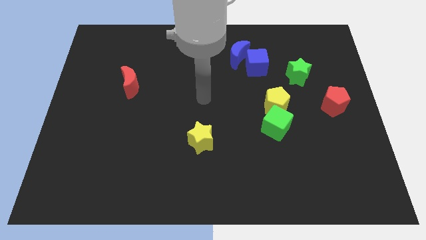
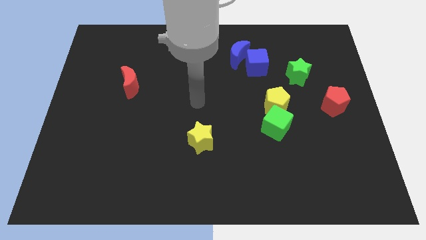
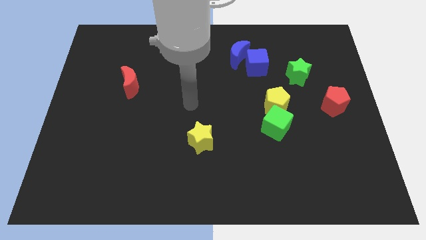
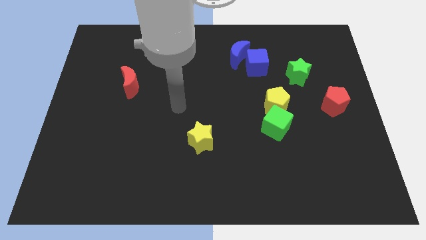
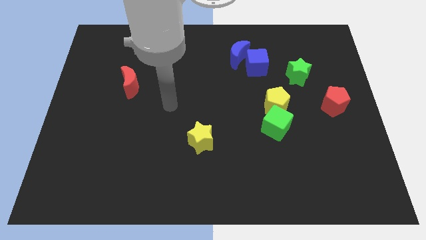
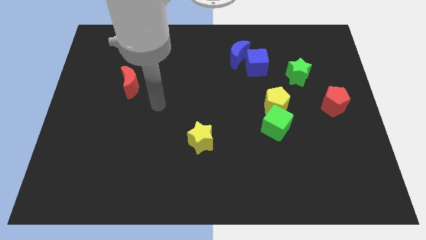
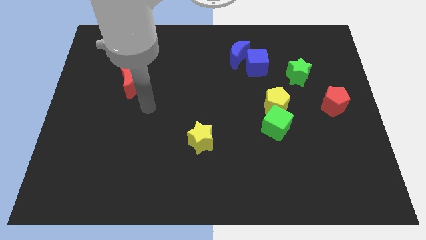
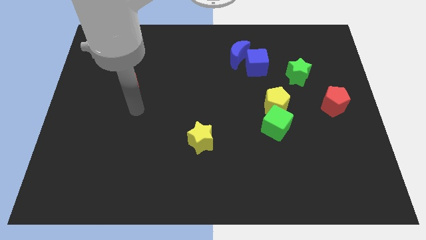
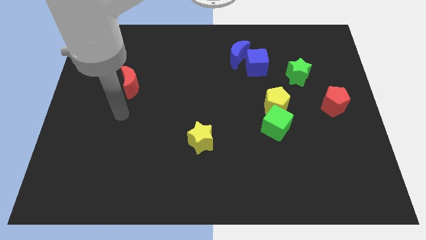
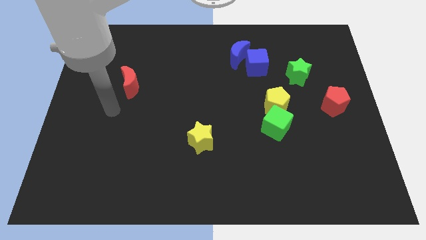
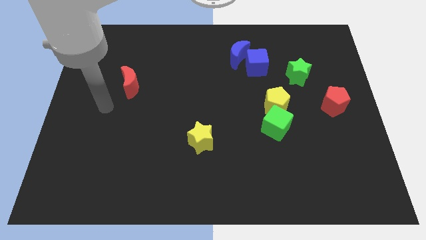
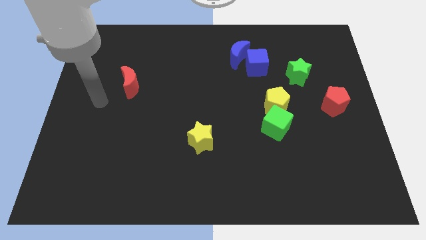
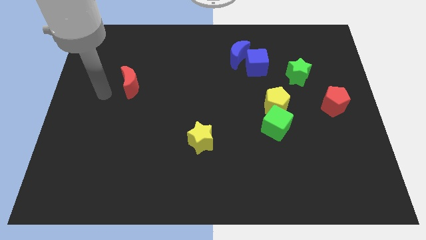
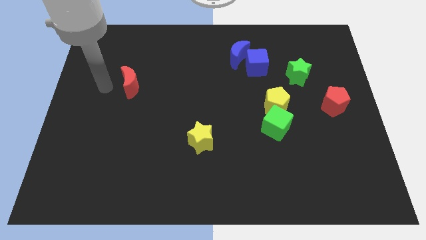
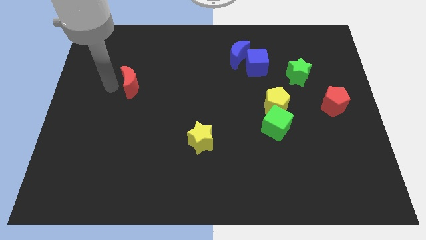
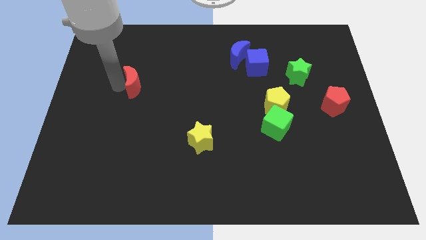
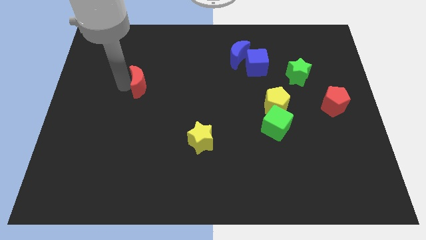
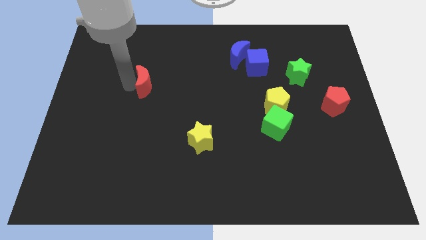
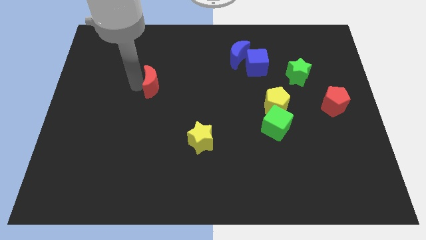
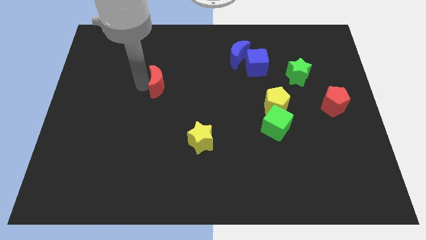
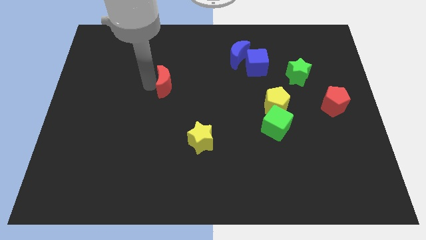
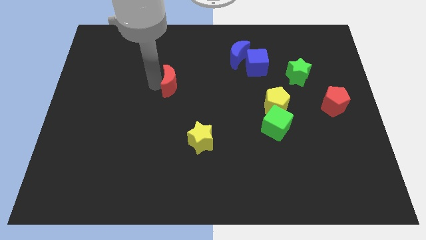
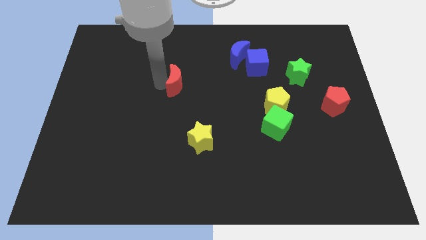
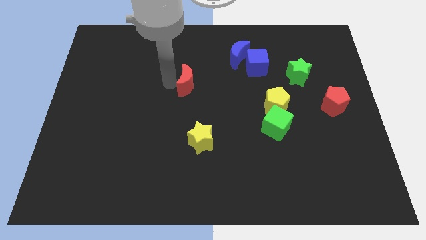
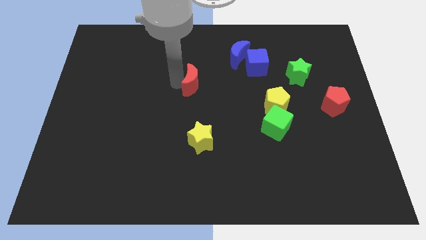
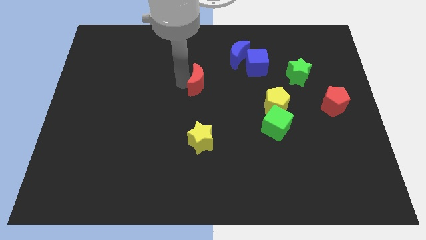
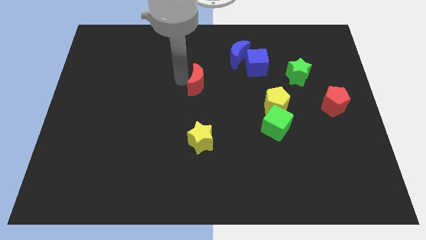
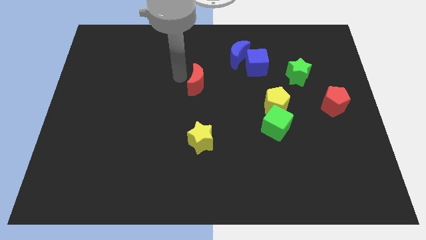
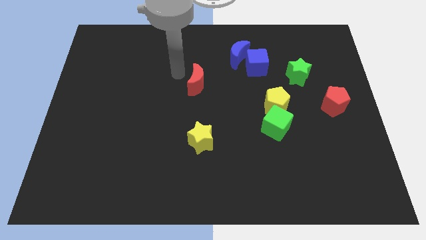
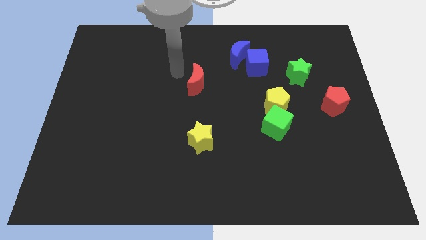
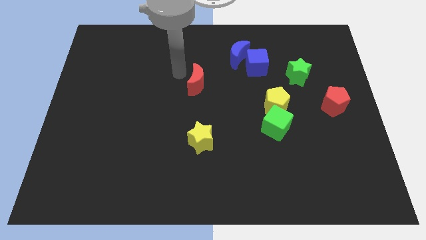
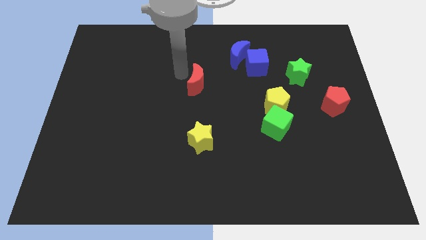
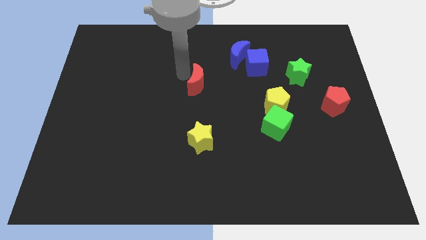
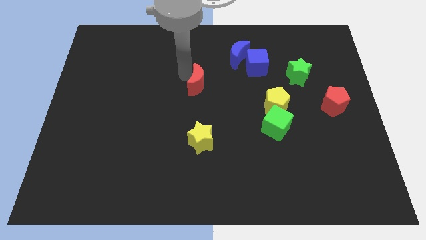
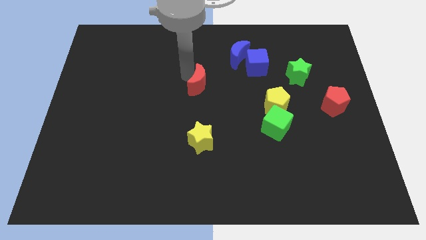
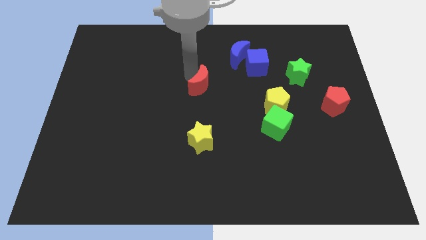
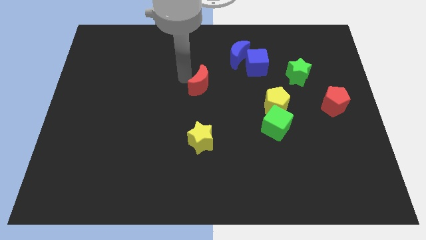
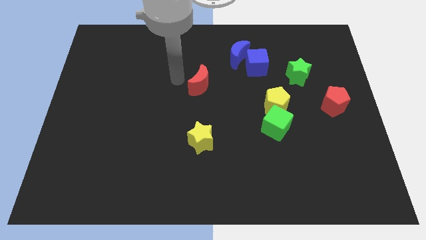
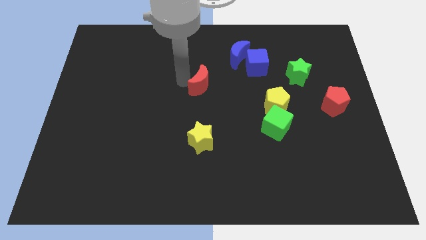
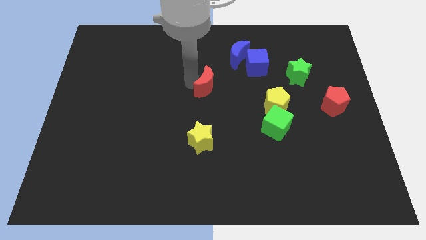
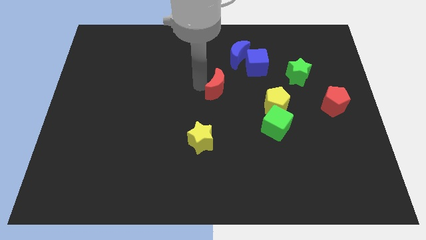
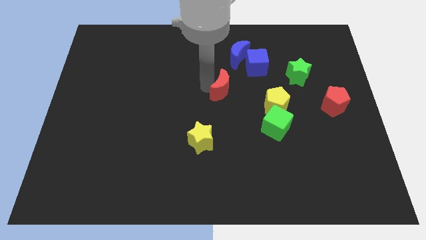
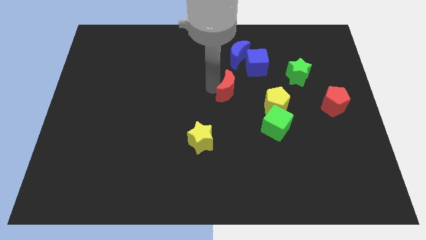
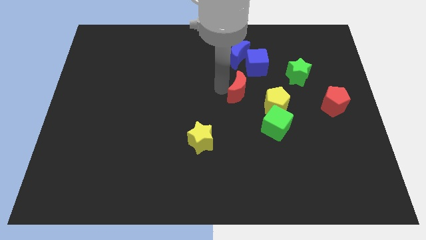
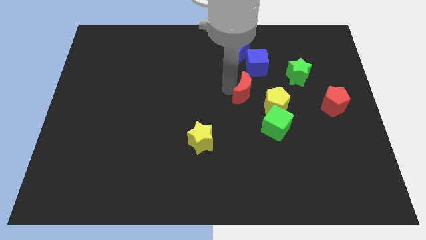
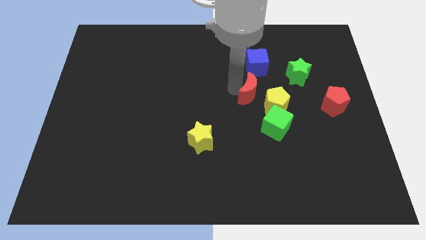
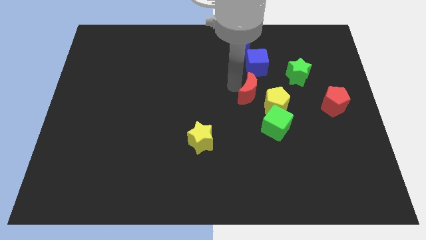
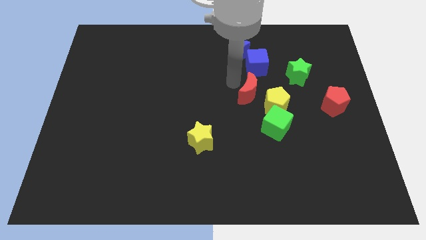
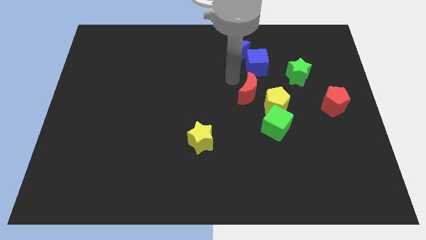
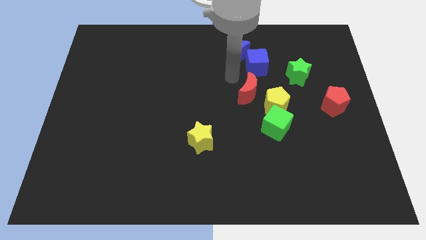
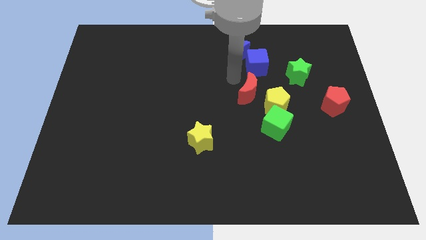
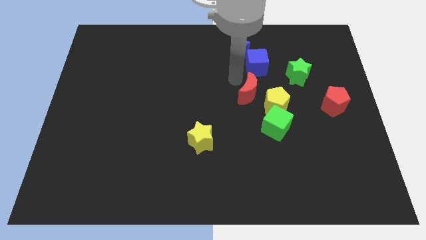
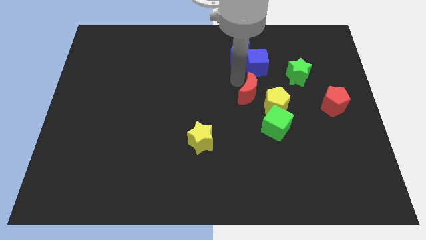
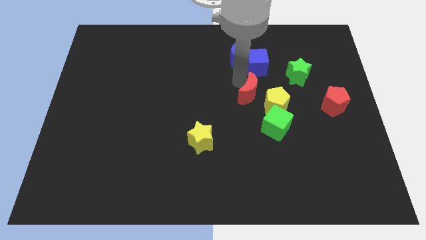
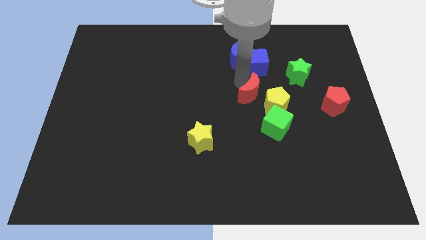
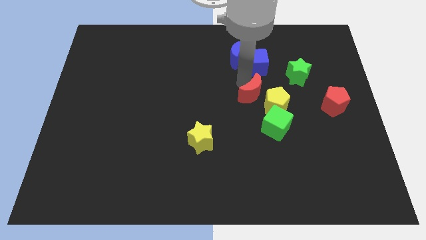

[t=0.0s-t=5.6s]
put the red moon close to the yellow pentagon

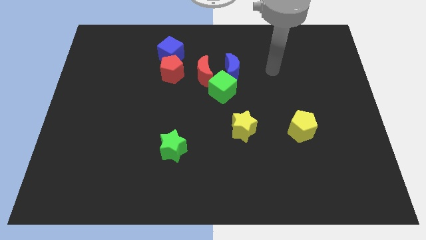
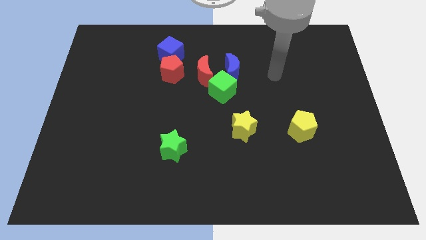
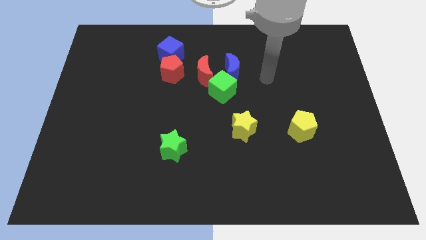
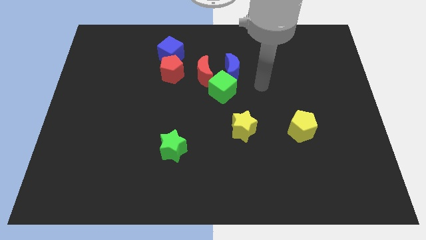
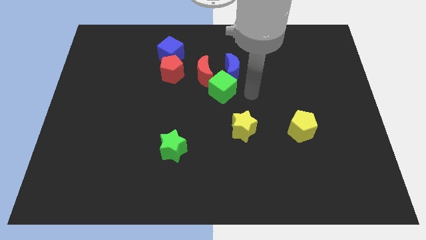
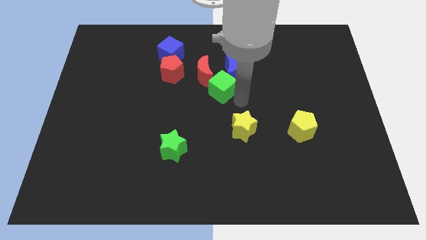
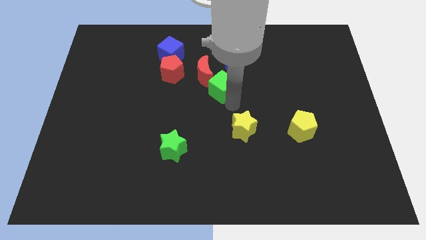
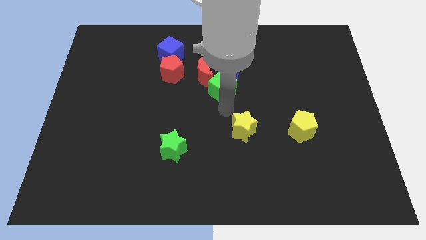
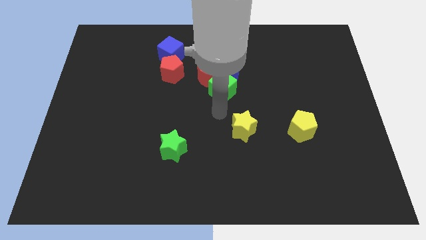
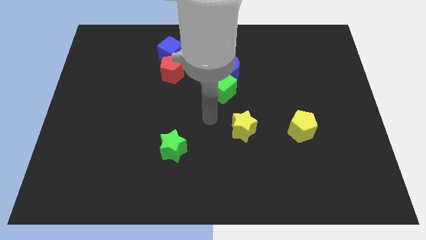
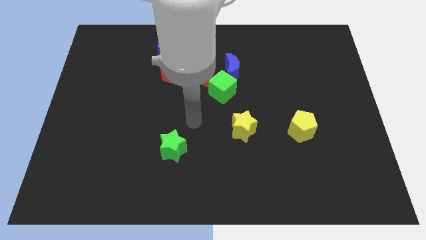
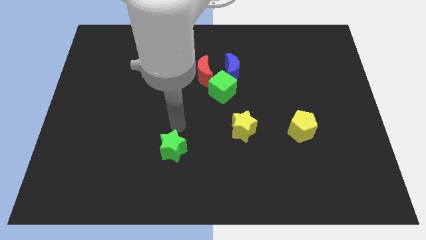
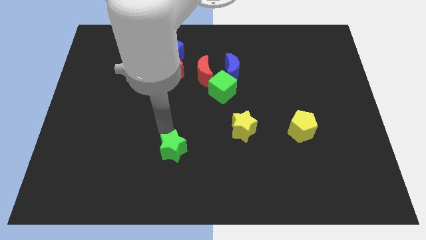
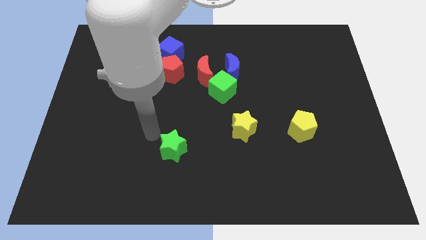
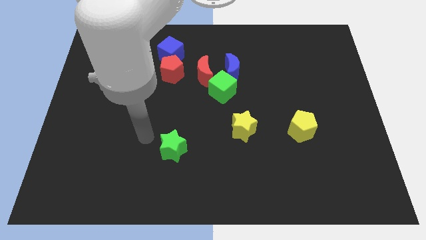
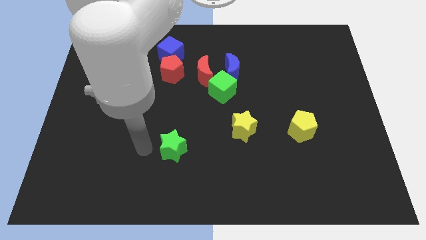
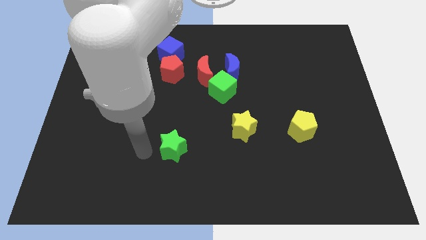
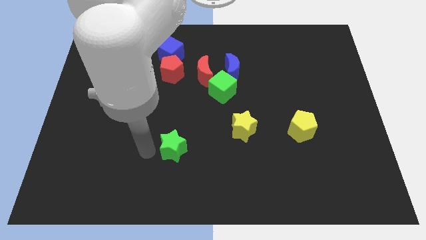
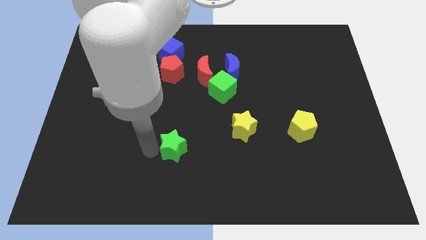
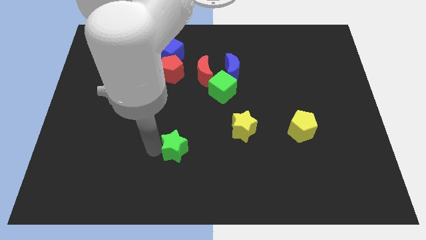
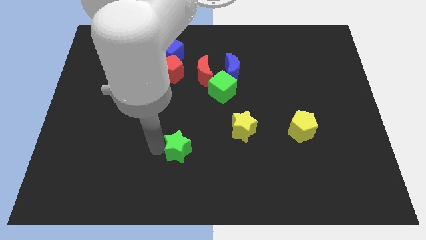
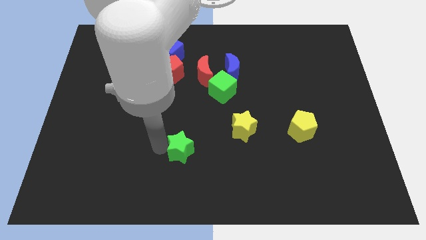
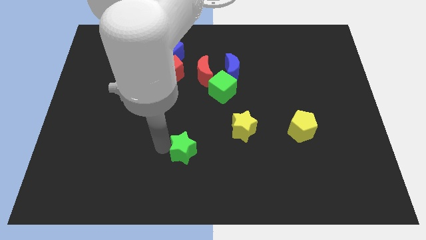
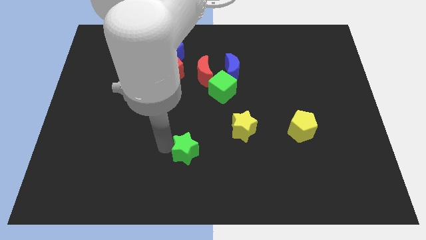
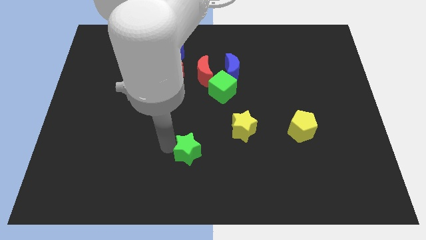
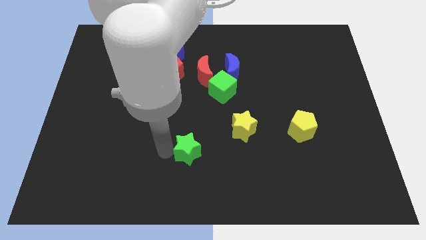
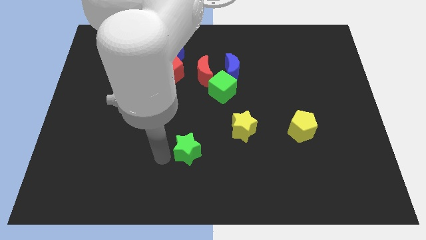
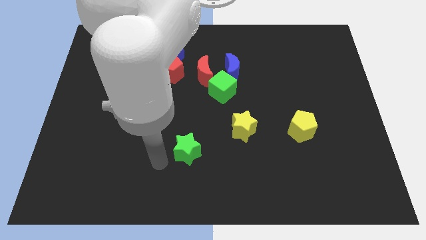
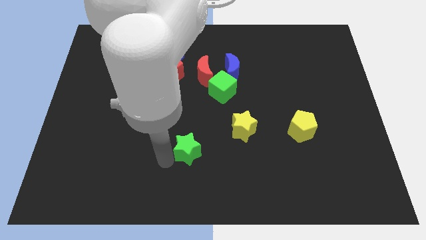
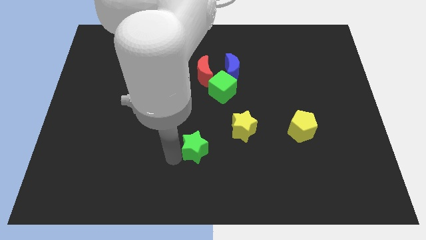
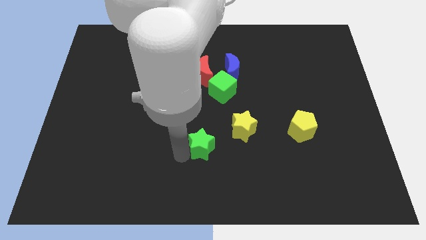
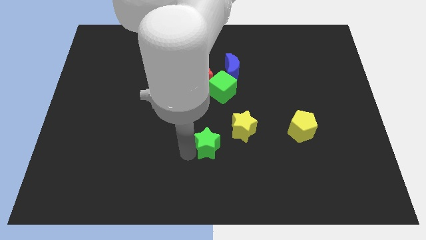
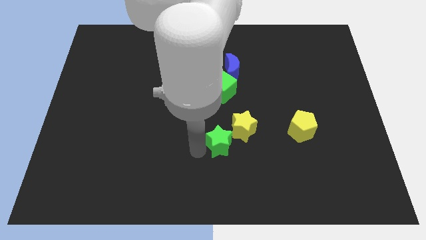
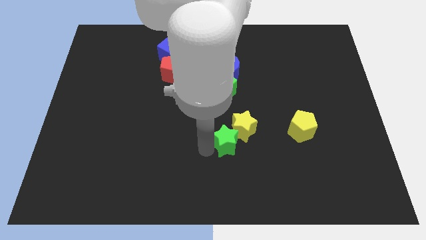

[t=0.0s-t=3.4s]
move the green star next to the yellow star
